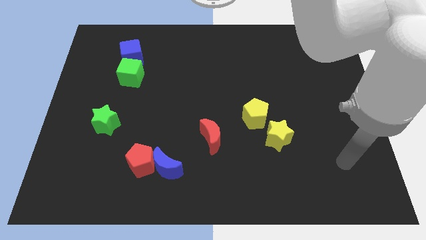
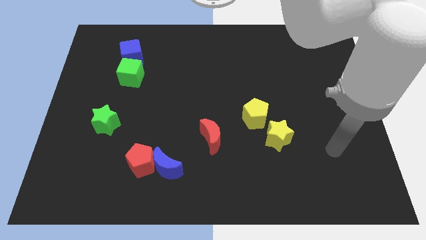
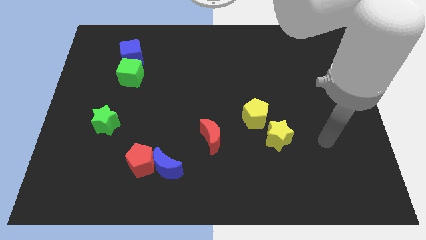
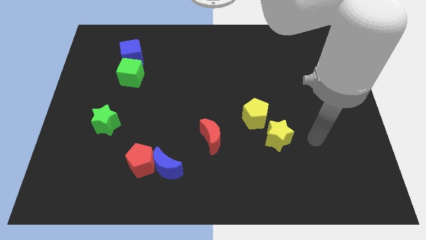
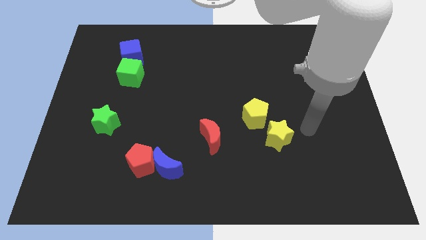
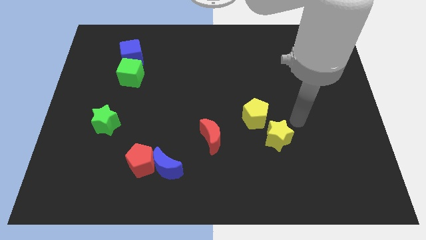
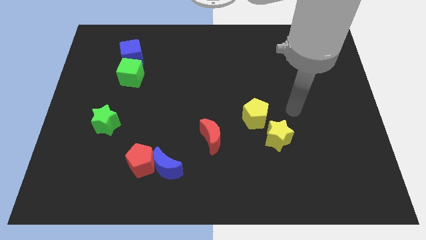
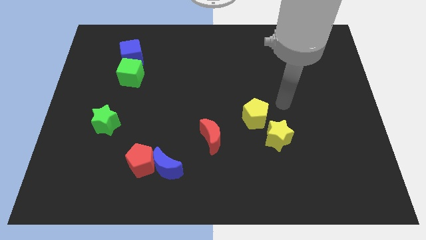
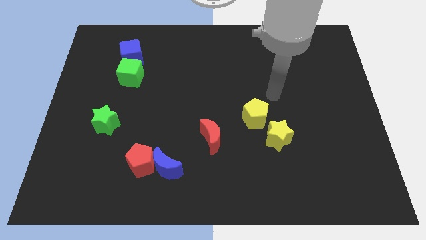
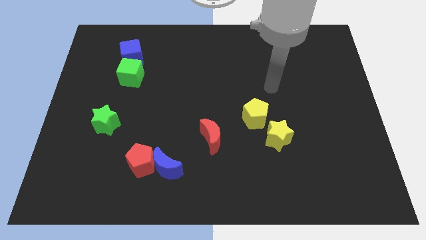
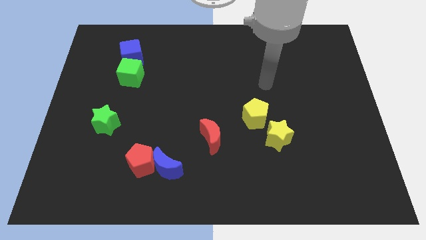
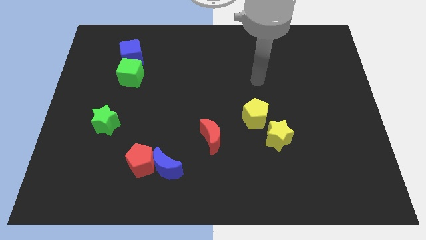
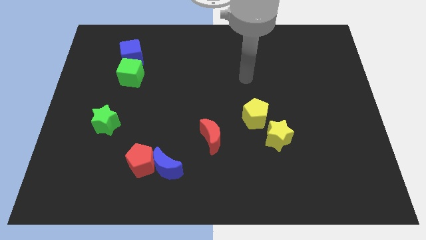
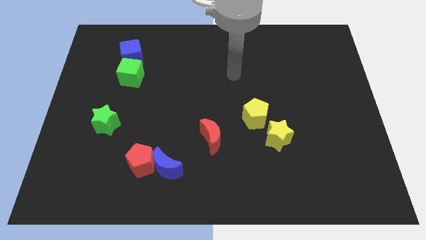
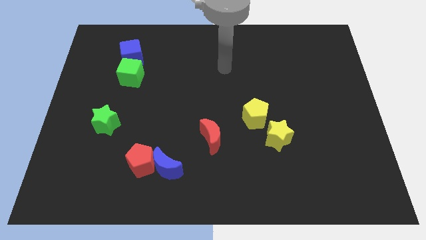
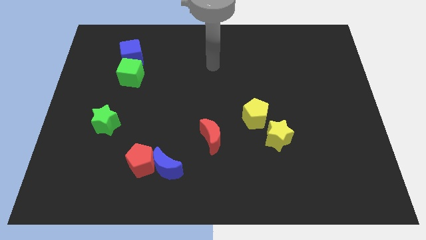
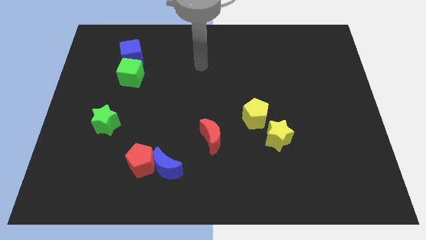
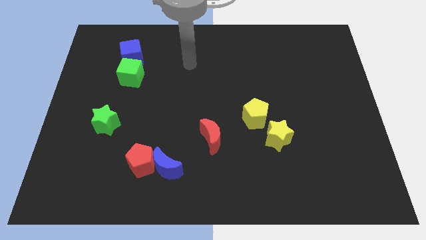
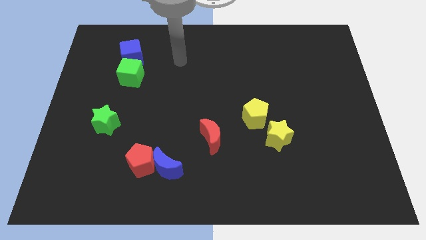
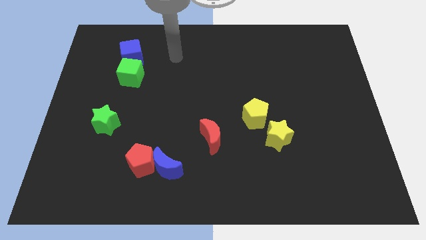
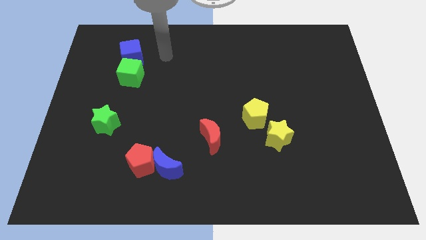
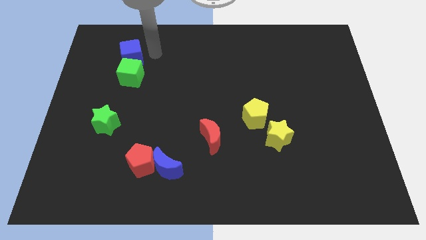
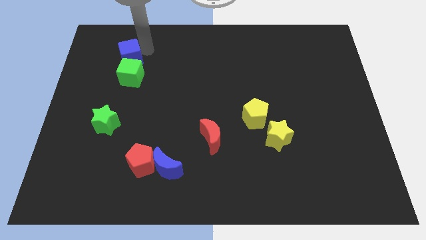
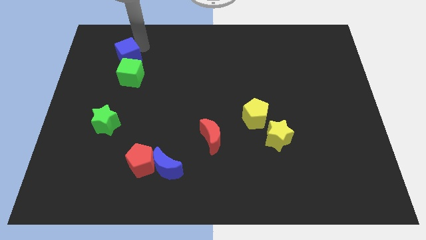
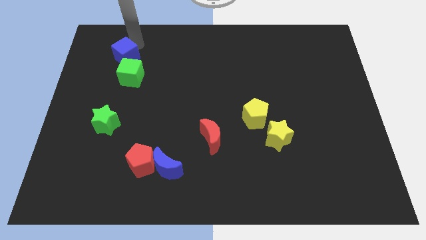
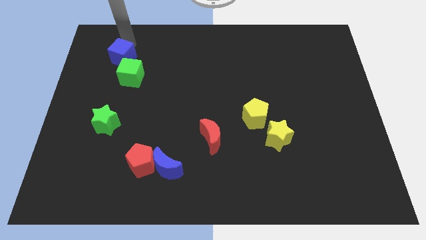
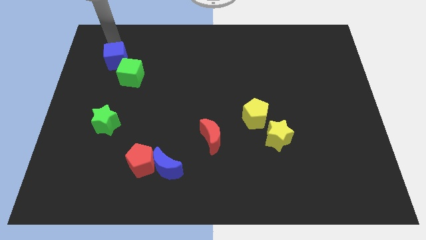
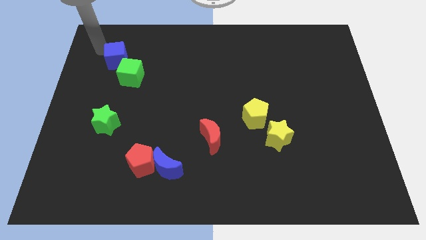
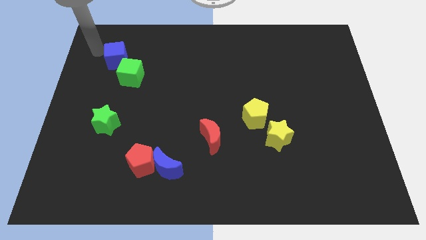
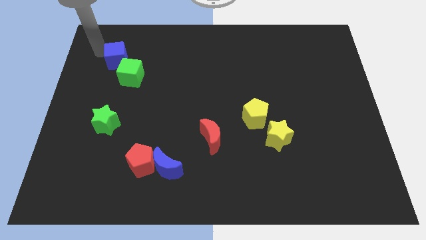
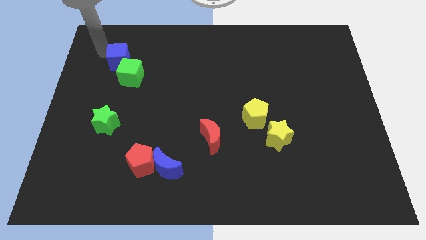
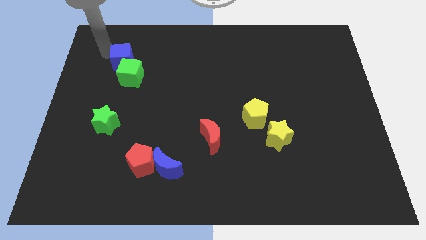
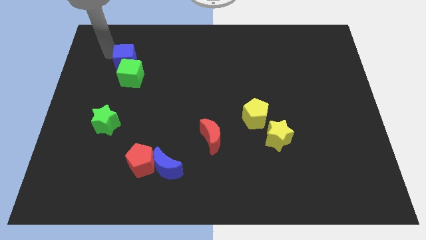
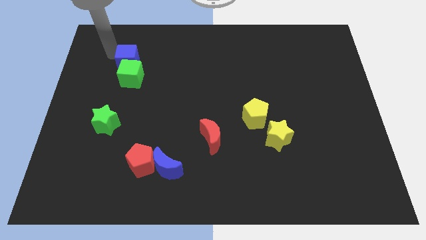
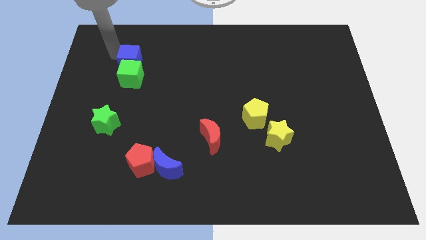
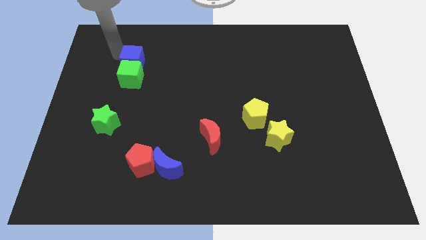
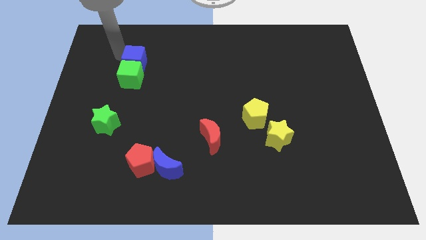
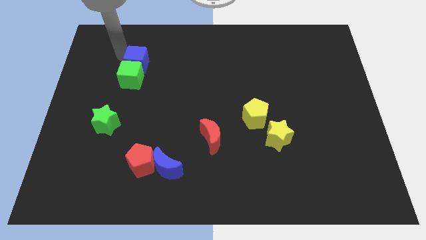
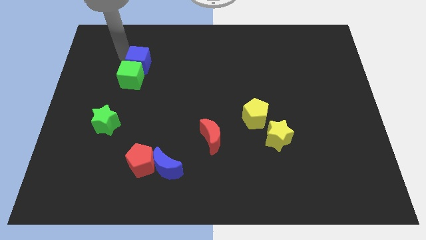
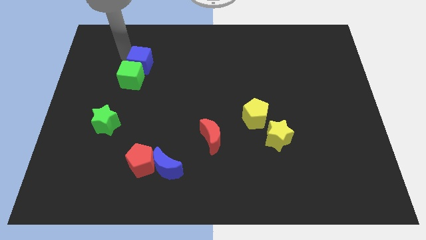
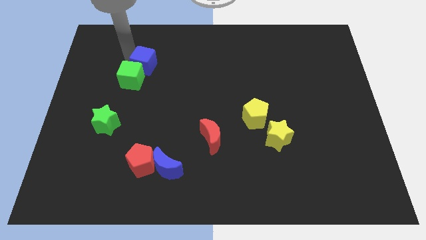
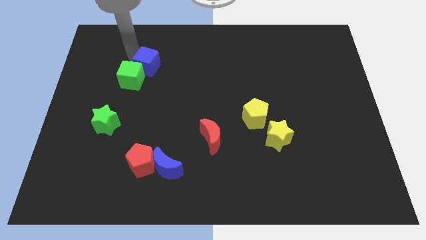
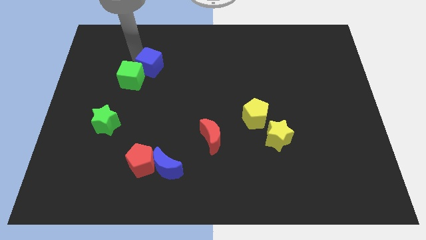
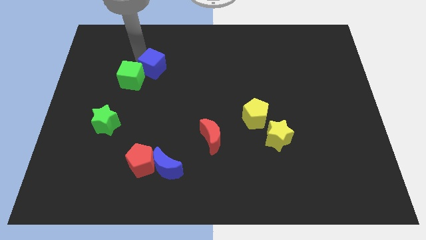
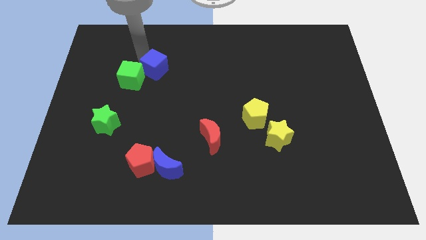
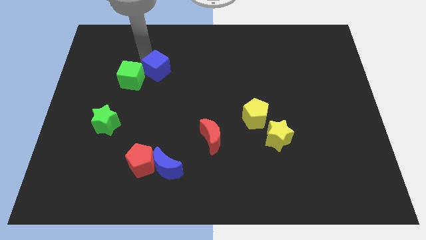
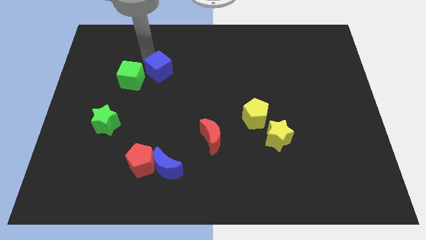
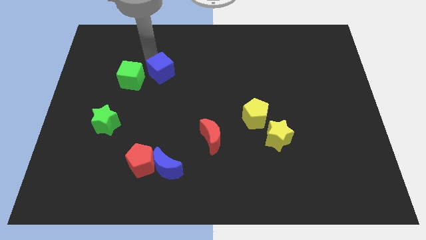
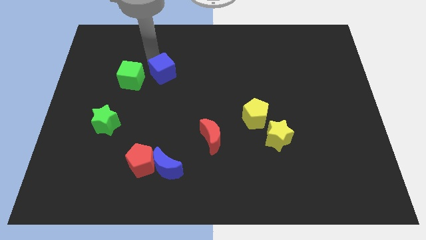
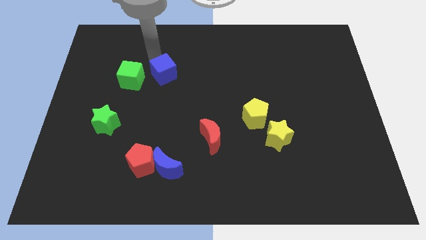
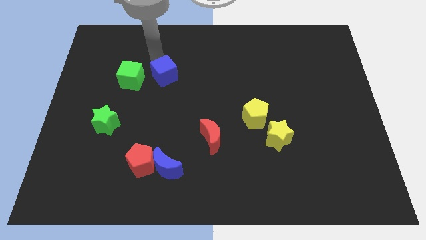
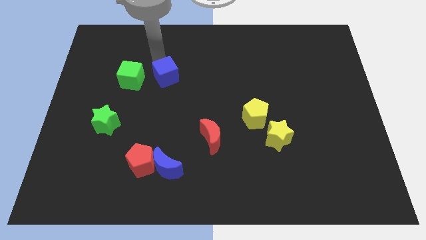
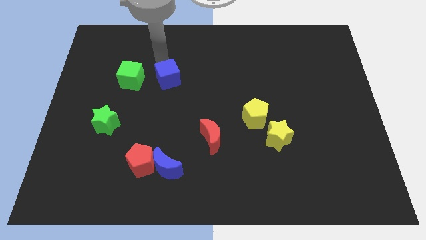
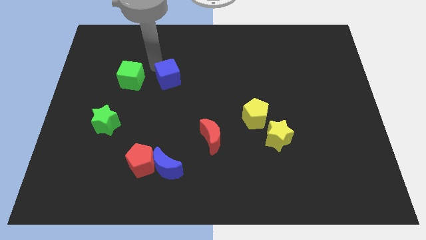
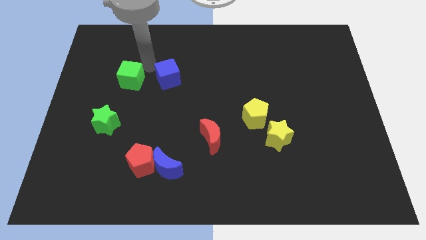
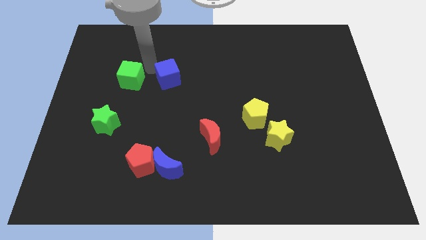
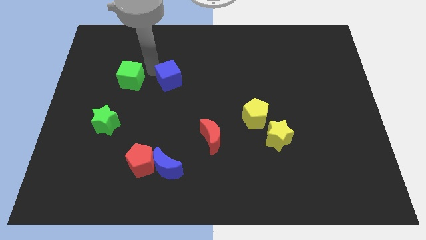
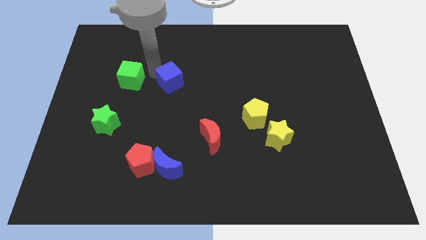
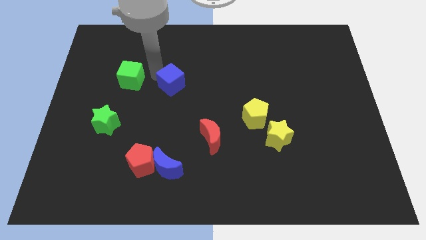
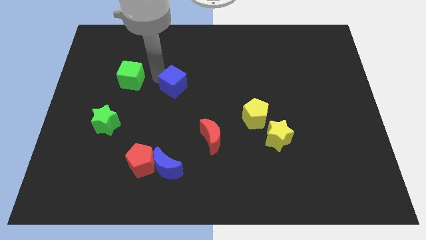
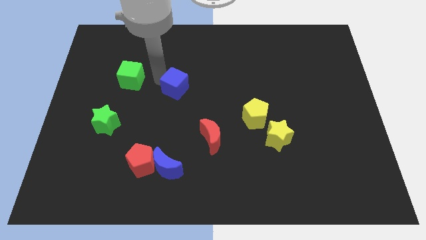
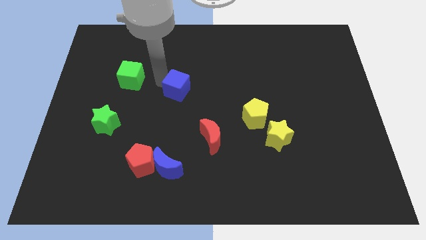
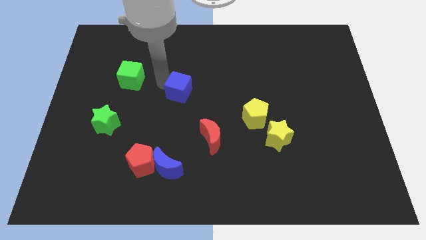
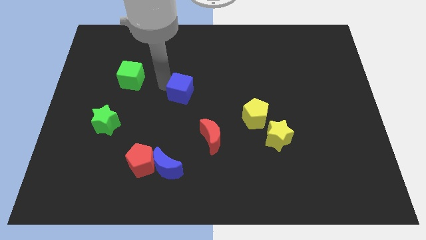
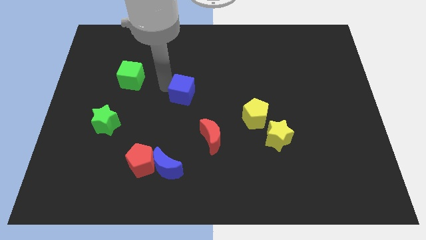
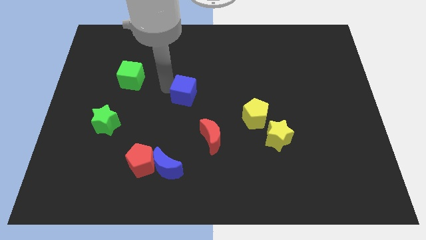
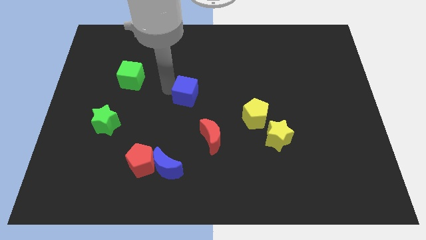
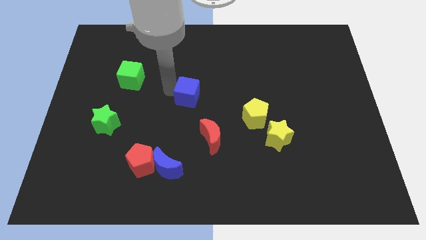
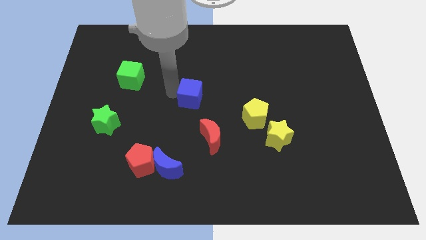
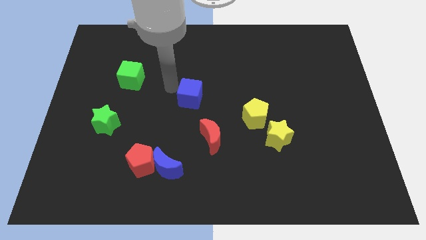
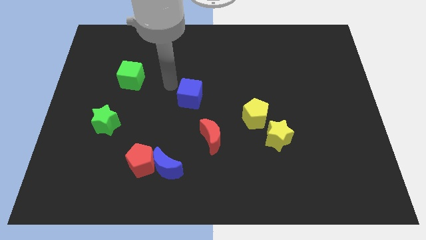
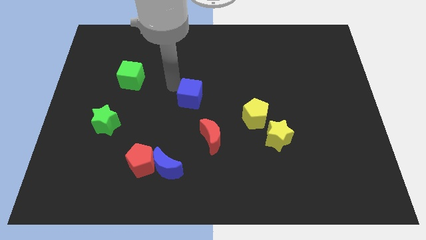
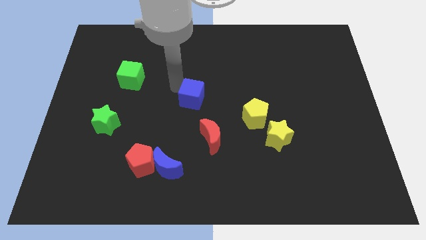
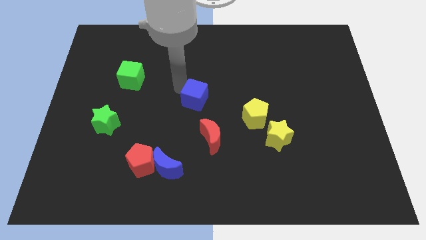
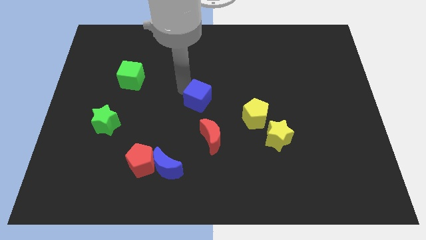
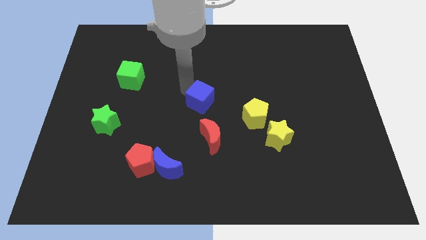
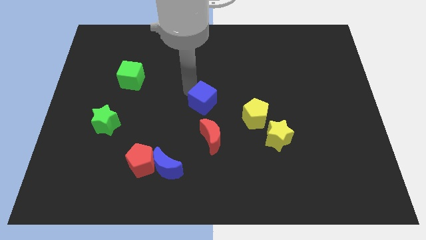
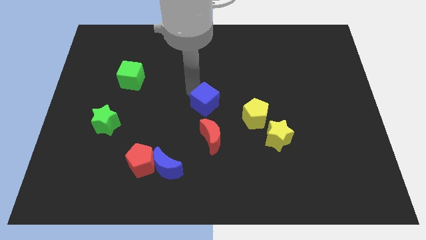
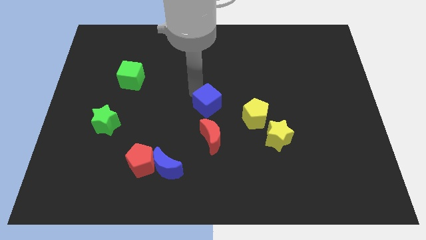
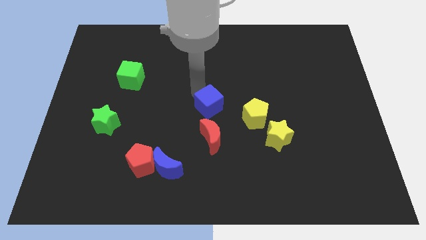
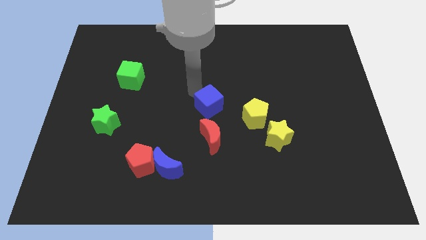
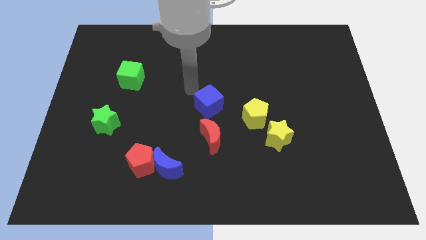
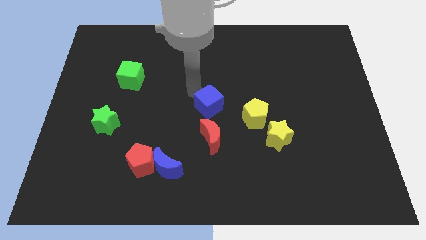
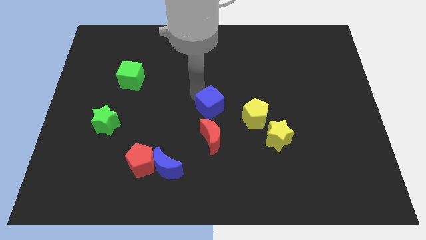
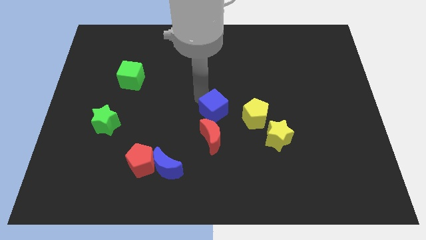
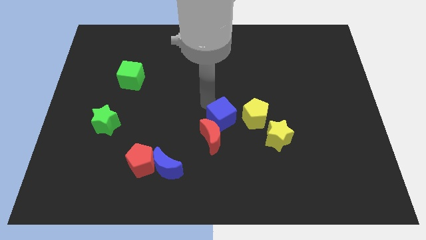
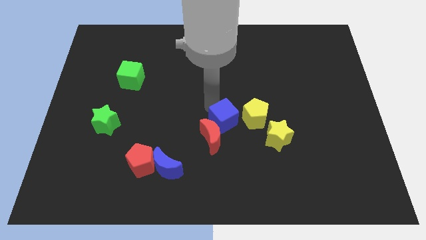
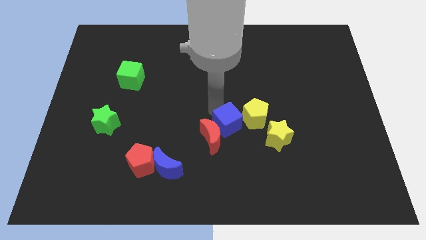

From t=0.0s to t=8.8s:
push the blue cube right of the red moon
